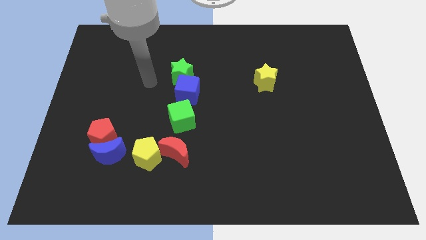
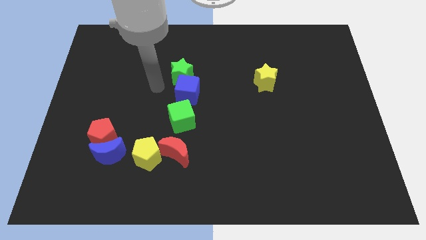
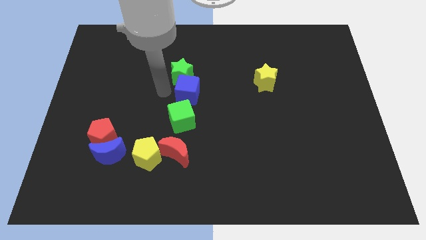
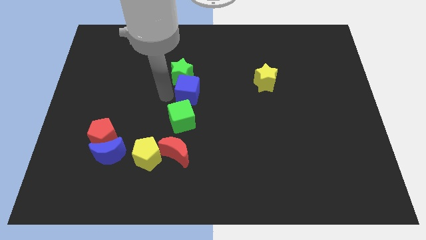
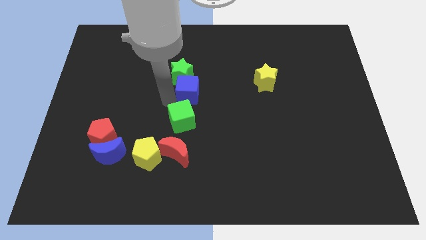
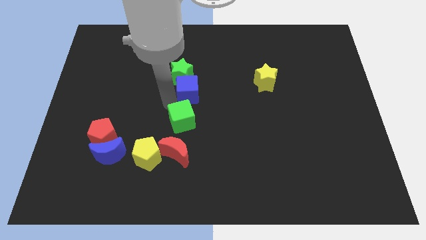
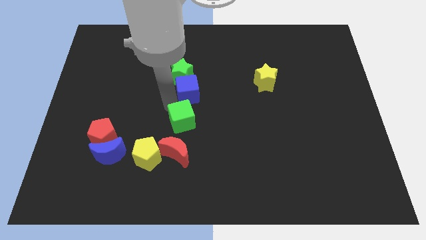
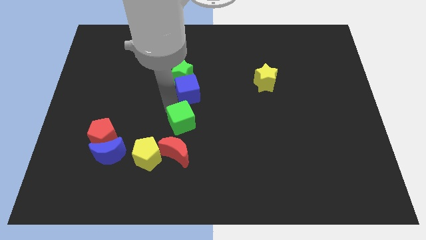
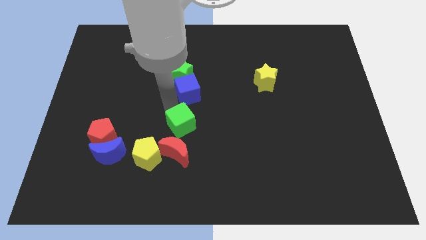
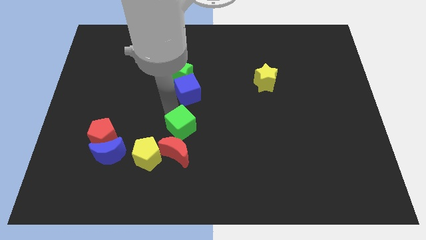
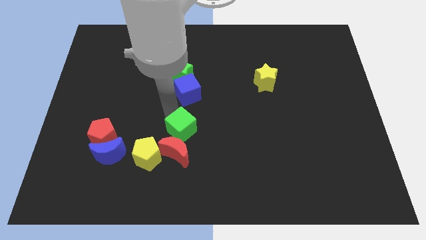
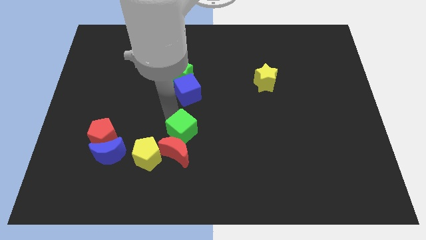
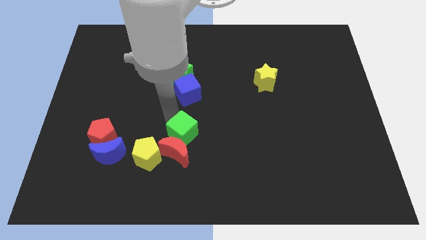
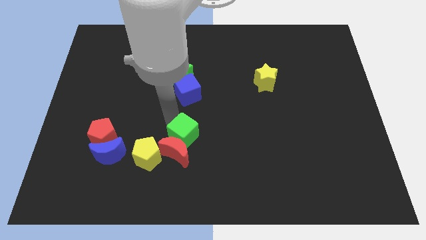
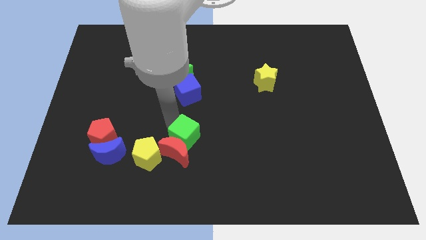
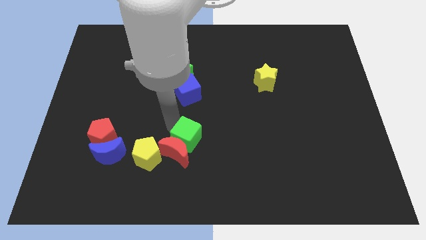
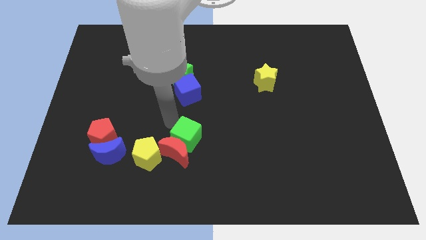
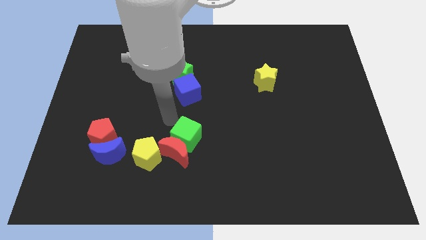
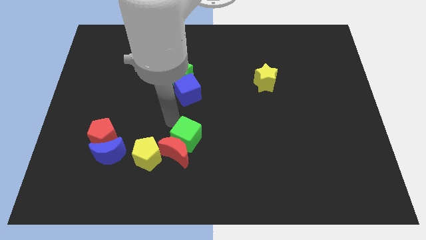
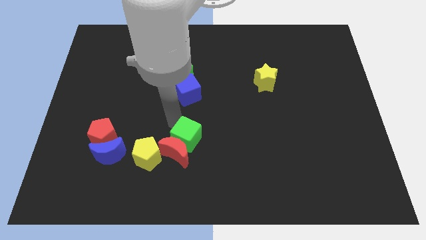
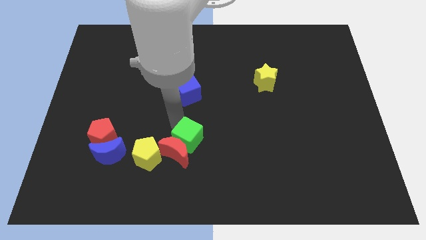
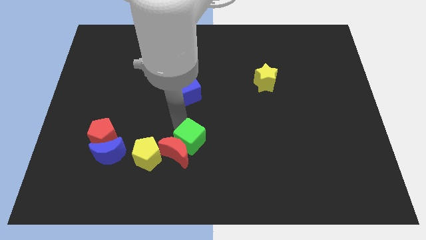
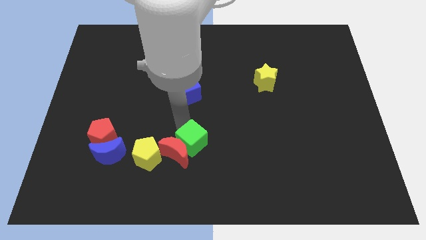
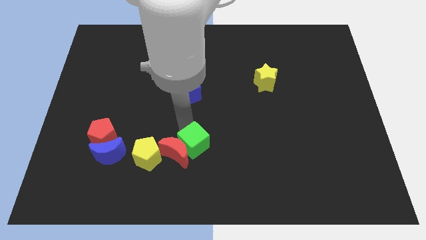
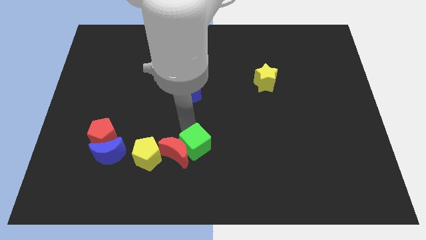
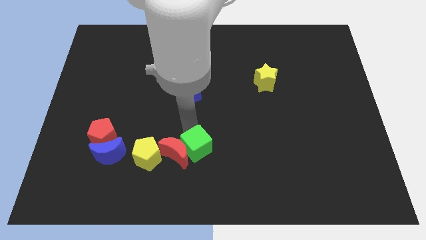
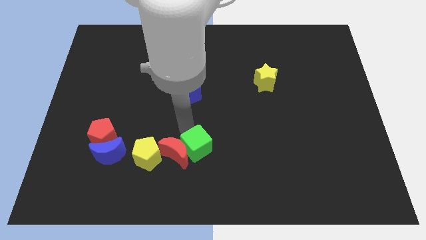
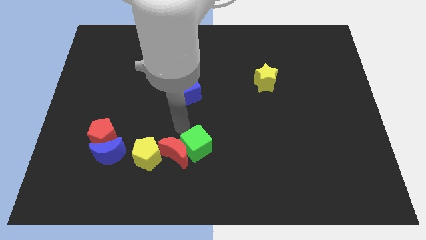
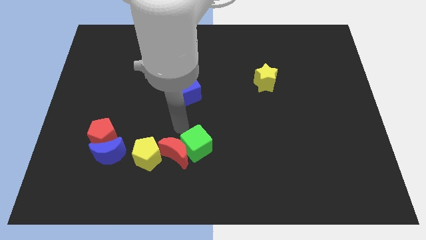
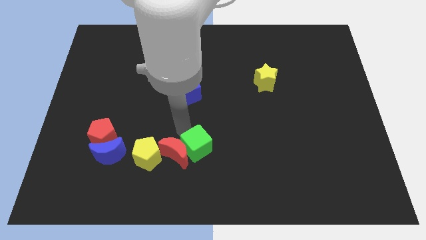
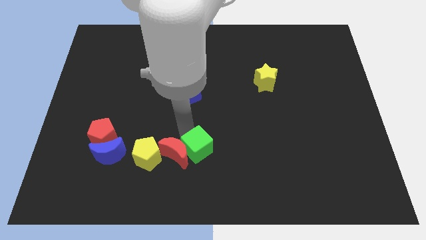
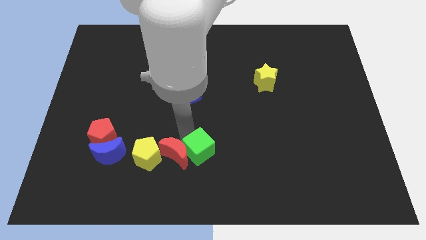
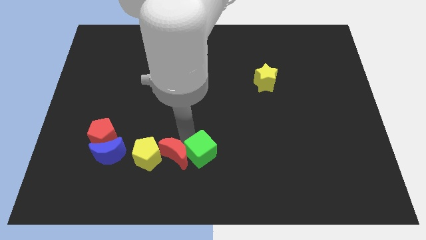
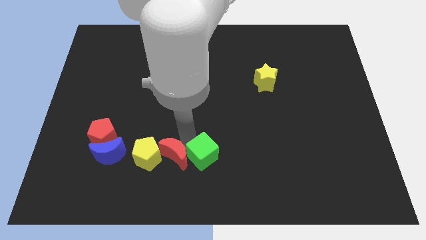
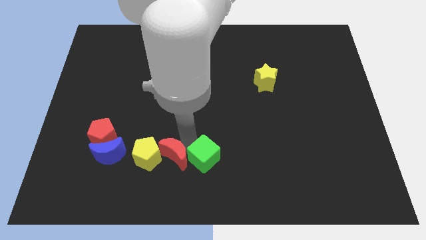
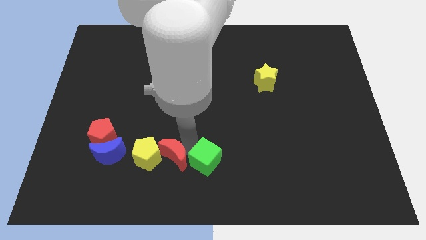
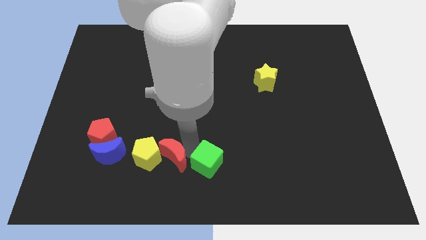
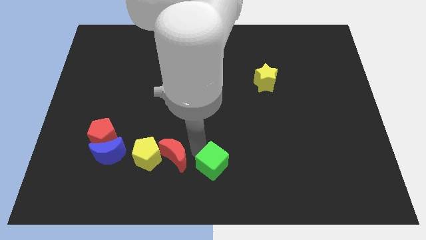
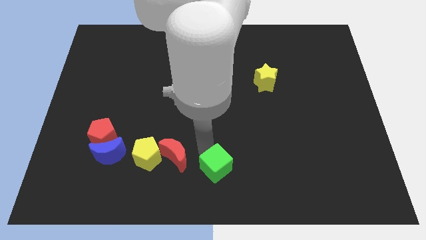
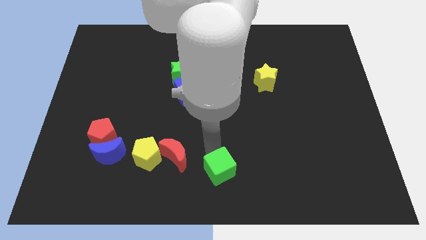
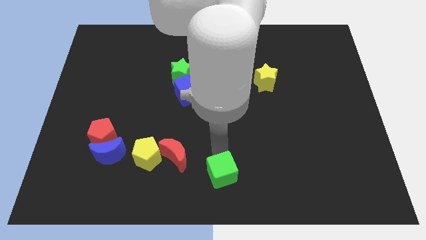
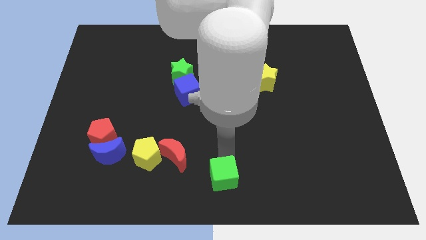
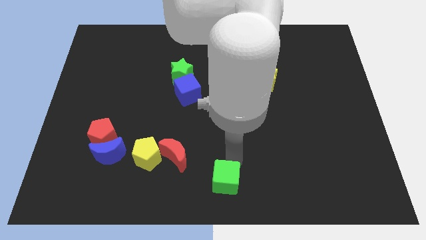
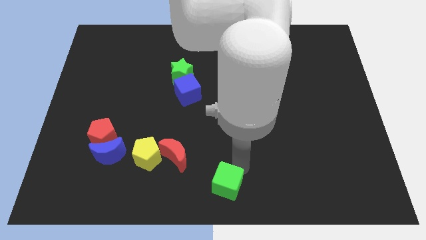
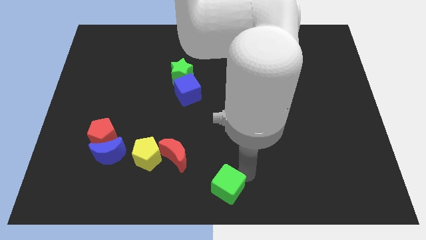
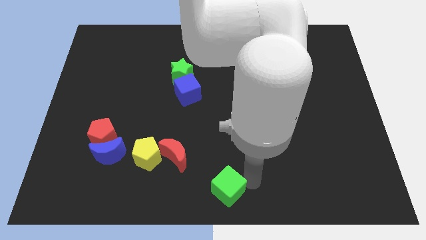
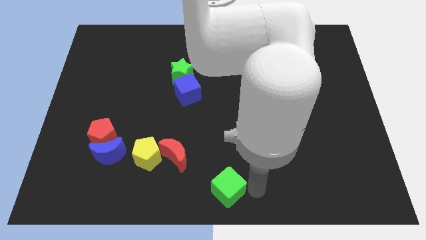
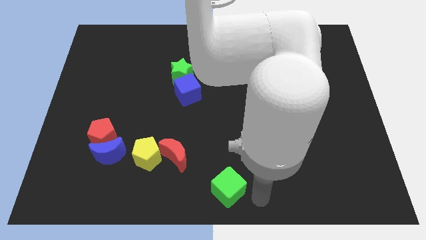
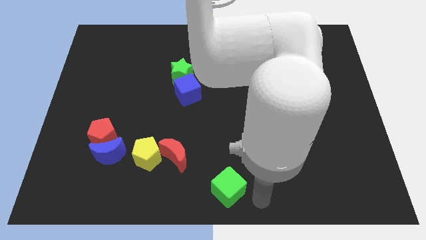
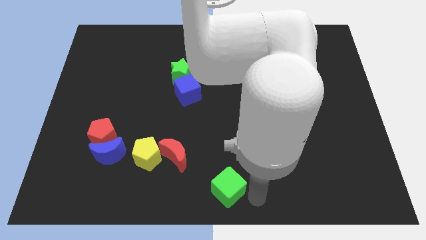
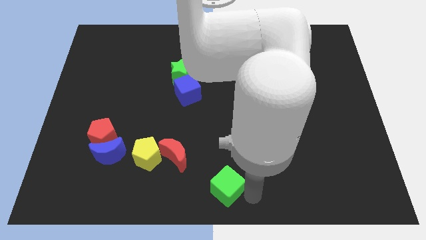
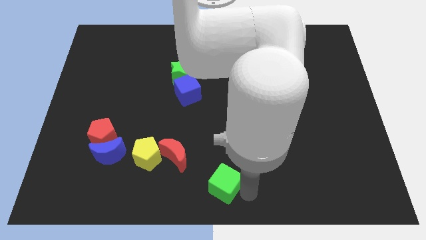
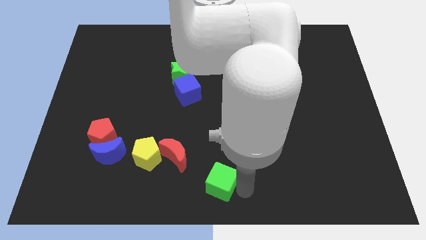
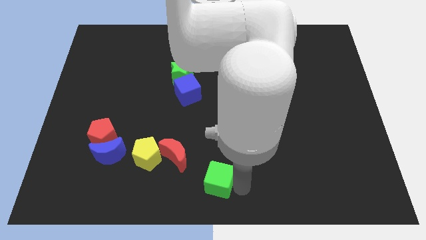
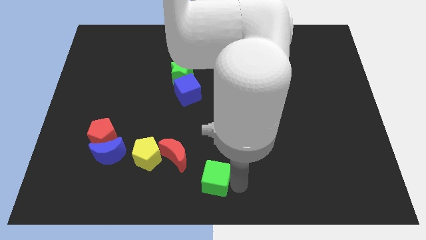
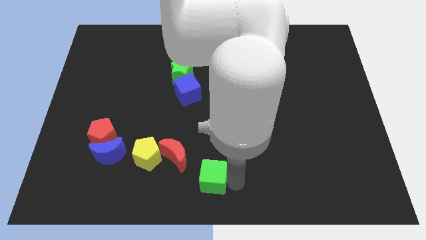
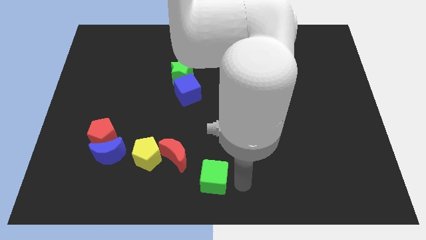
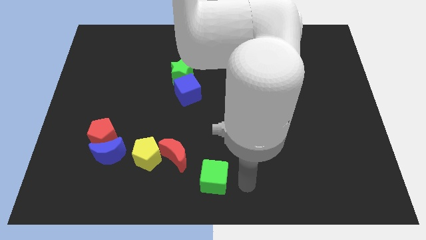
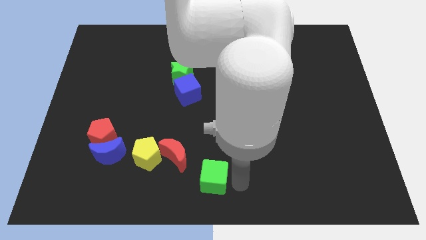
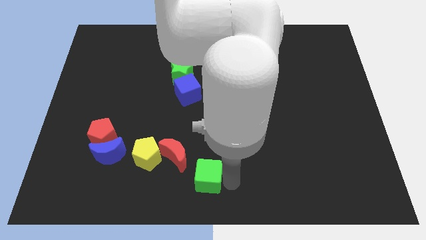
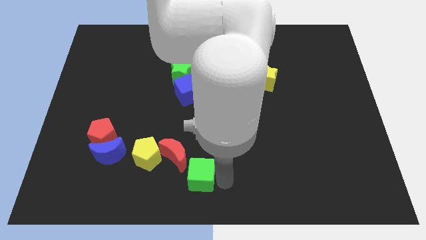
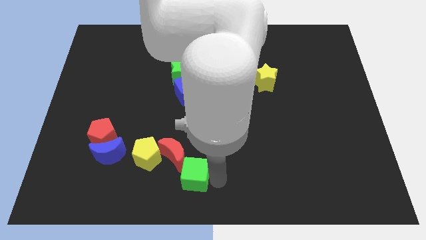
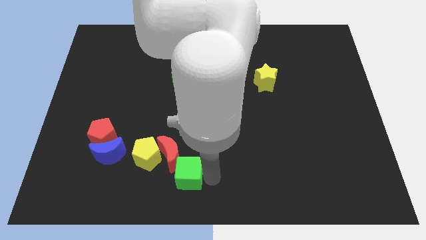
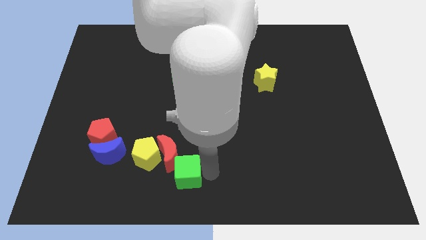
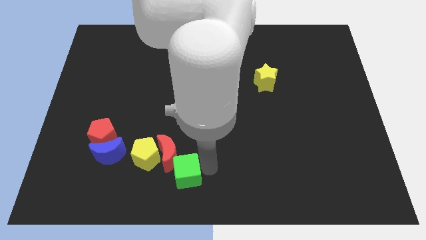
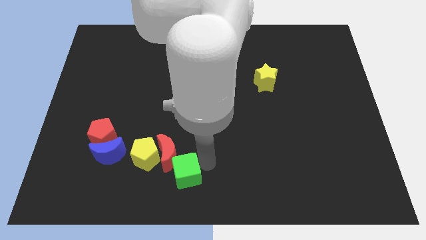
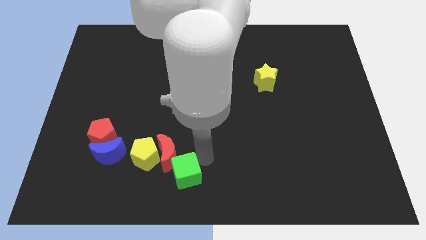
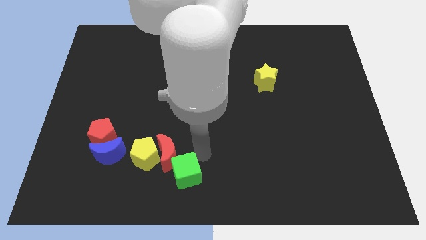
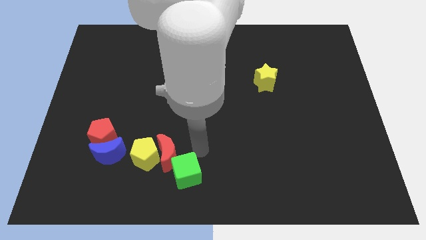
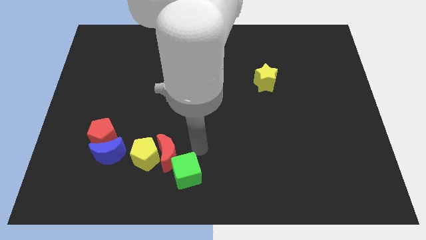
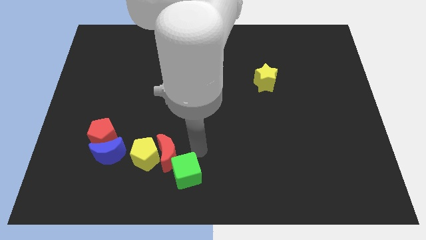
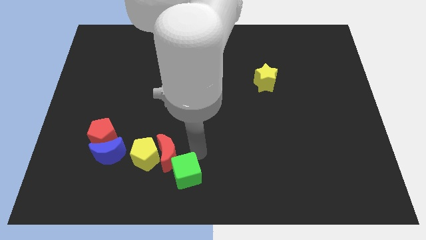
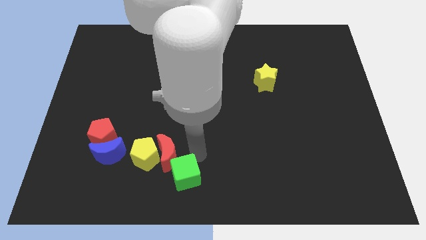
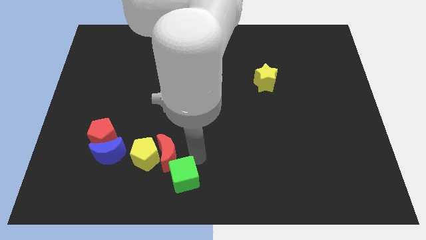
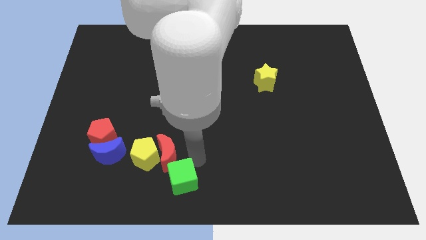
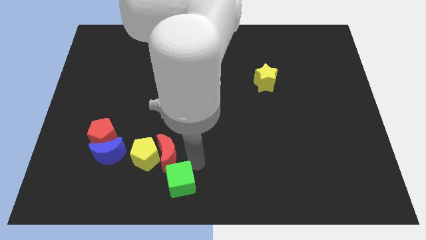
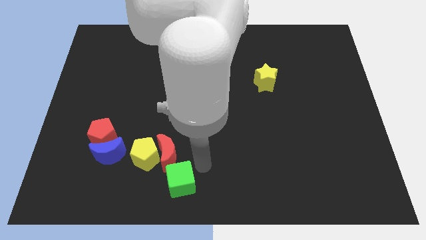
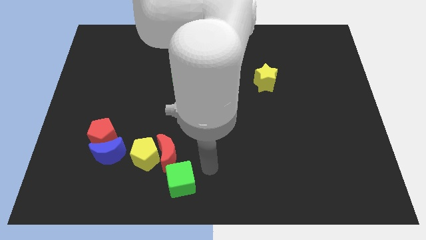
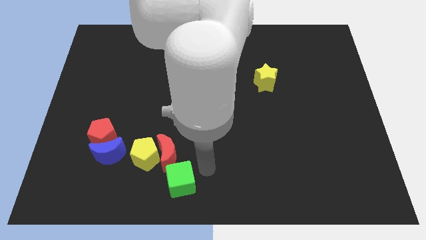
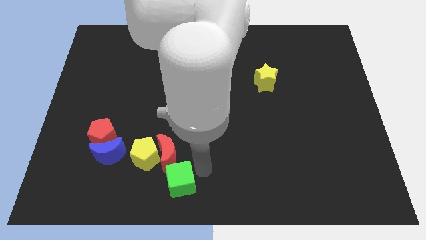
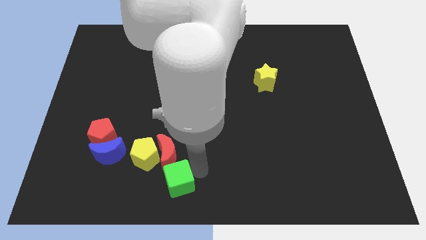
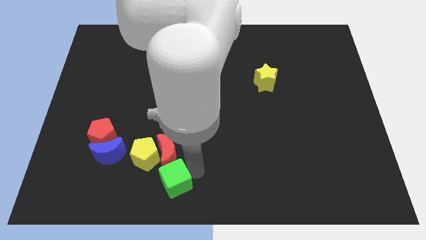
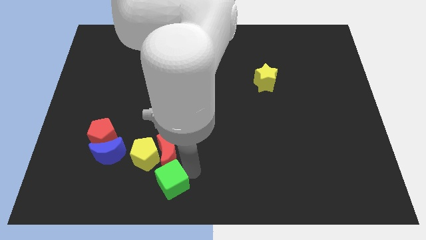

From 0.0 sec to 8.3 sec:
move the green cube slightly diagonally downwards and left
